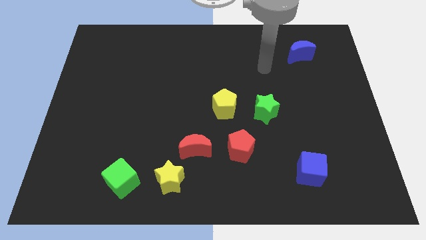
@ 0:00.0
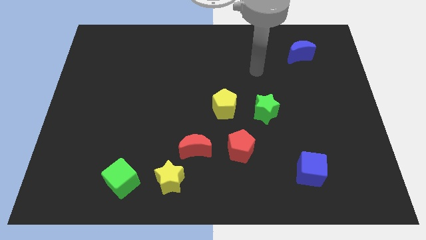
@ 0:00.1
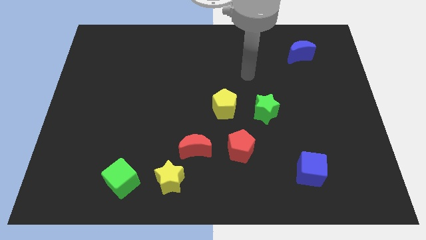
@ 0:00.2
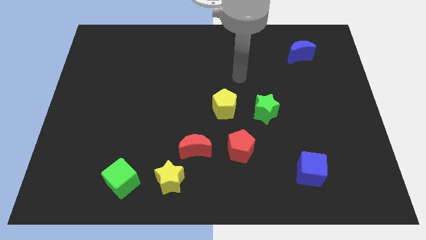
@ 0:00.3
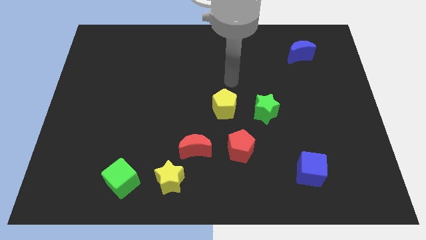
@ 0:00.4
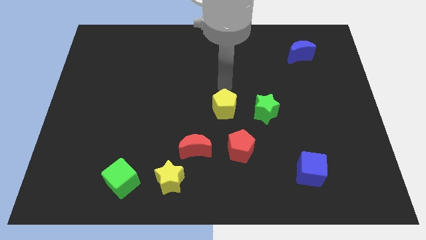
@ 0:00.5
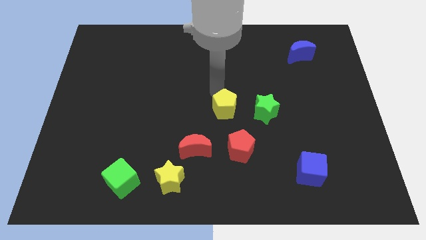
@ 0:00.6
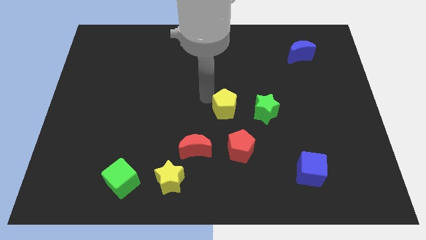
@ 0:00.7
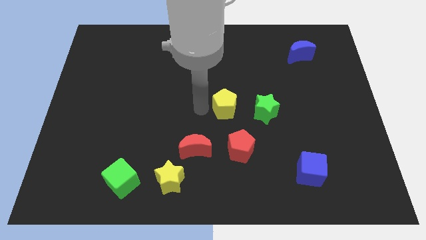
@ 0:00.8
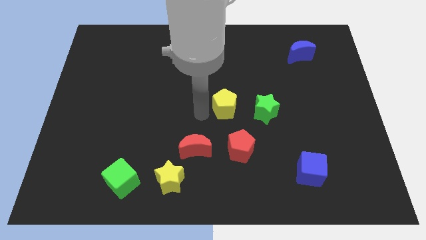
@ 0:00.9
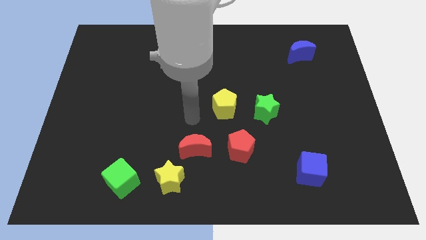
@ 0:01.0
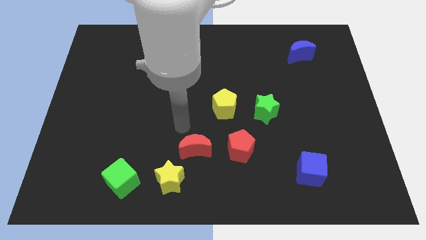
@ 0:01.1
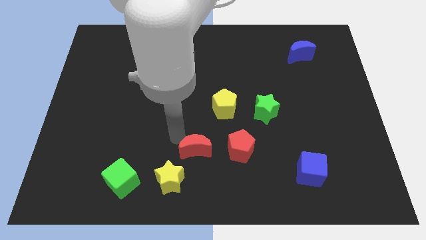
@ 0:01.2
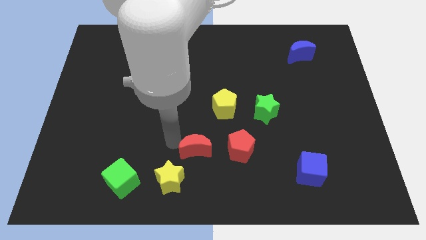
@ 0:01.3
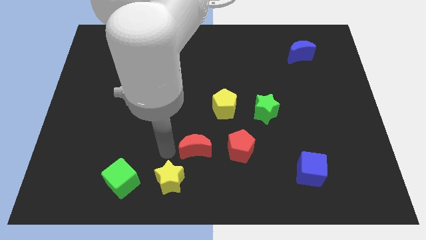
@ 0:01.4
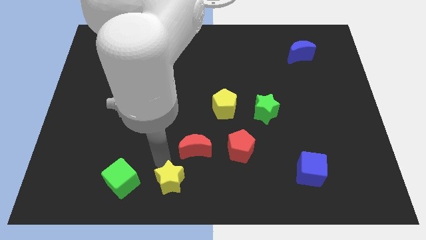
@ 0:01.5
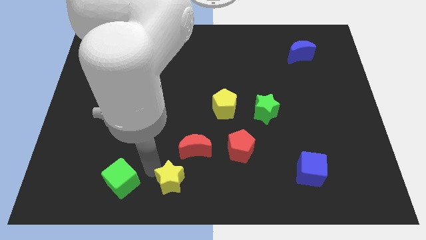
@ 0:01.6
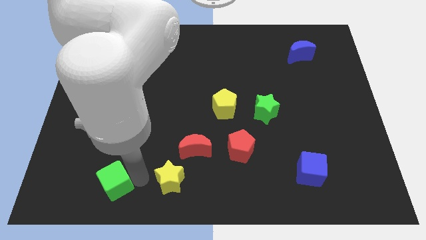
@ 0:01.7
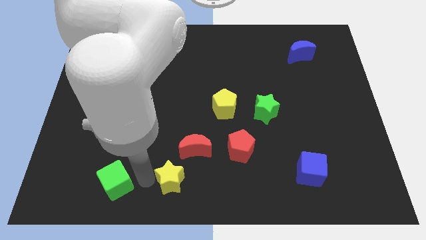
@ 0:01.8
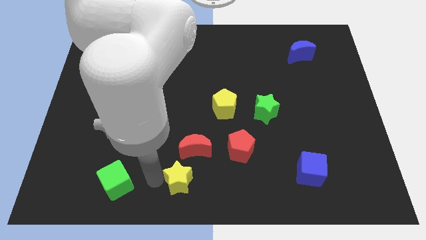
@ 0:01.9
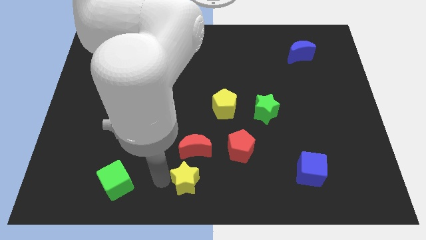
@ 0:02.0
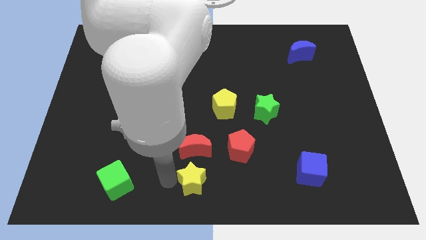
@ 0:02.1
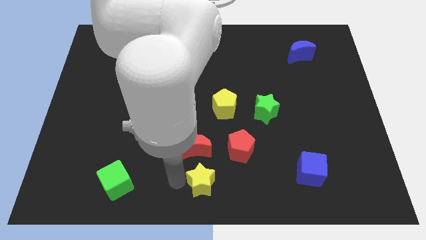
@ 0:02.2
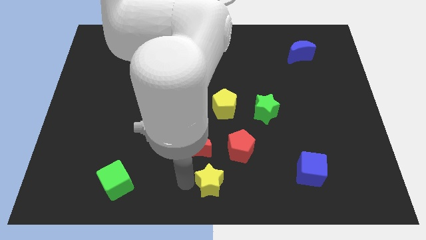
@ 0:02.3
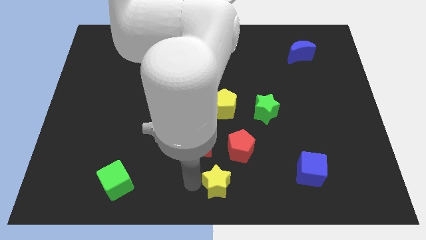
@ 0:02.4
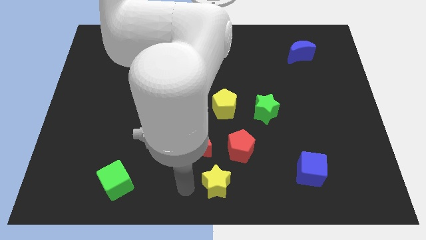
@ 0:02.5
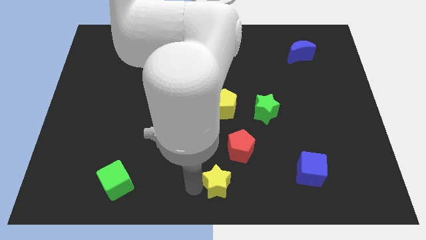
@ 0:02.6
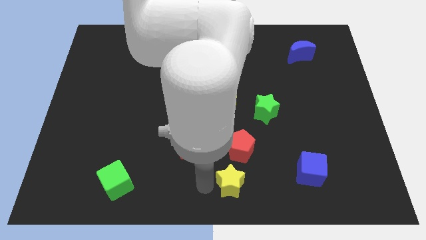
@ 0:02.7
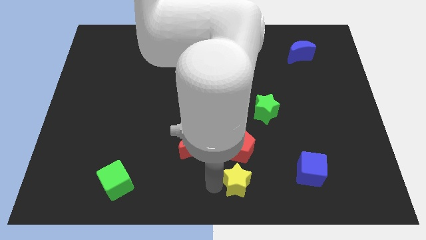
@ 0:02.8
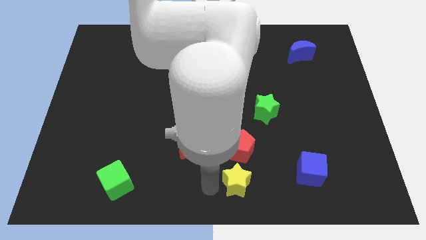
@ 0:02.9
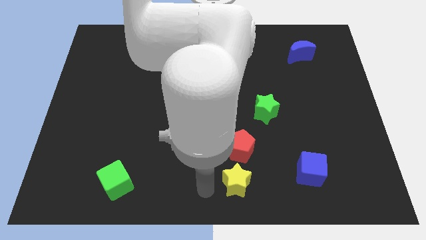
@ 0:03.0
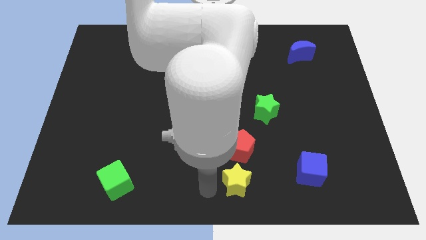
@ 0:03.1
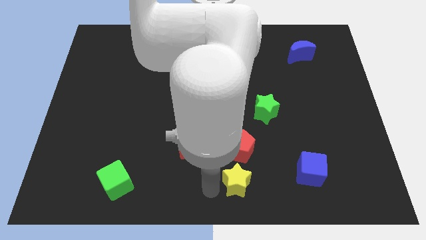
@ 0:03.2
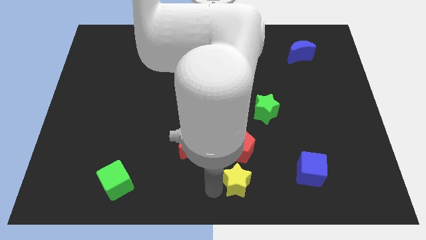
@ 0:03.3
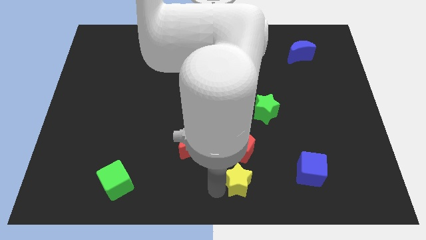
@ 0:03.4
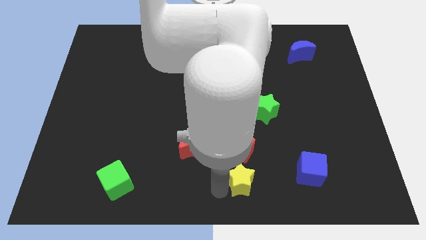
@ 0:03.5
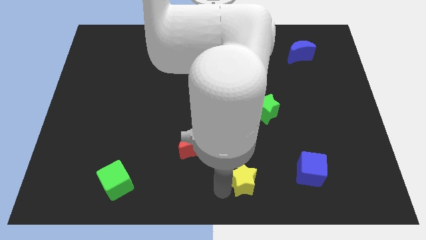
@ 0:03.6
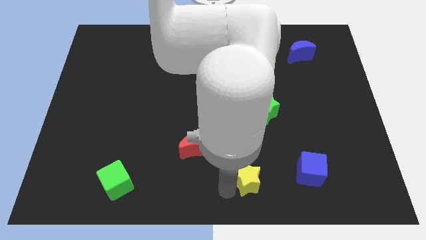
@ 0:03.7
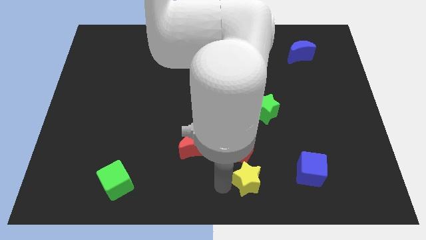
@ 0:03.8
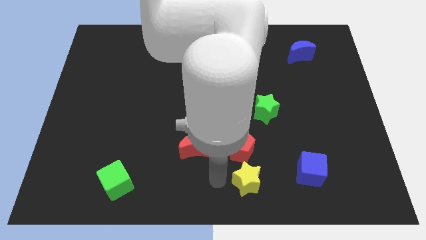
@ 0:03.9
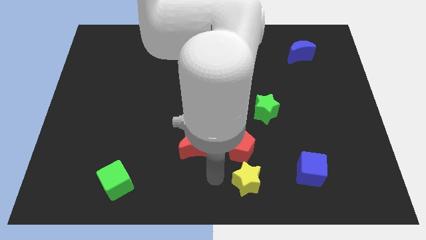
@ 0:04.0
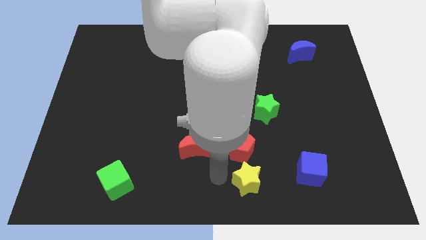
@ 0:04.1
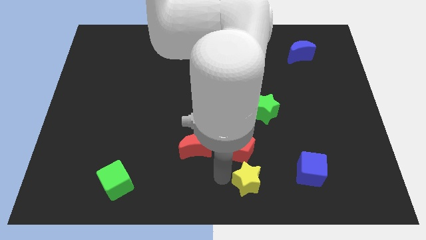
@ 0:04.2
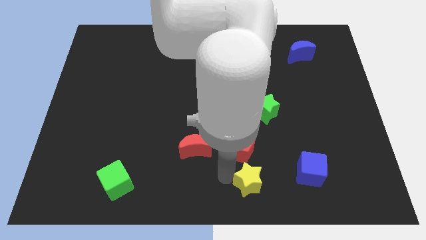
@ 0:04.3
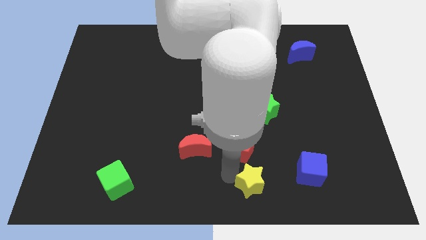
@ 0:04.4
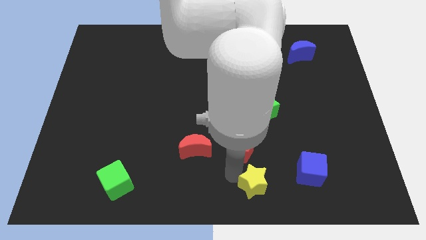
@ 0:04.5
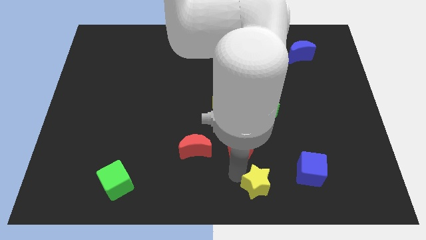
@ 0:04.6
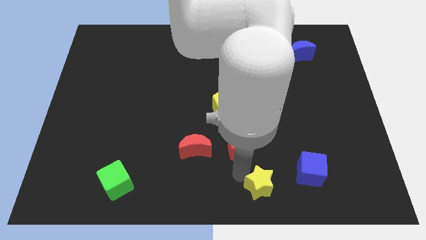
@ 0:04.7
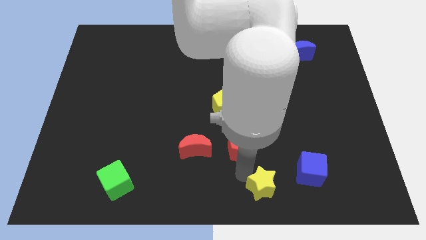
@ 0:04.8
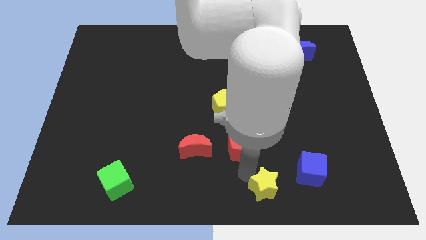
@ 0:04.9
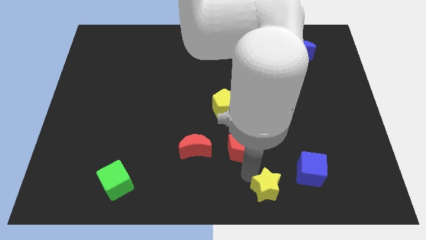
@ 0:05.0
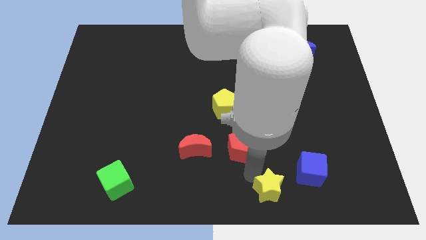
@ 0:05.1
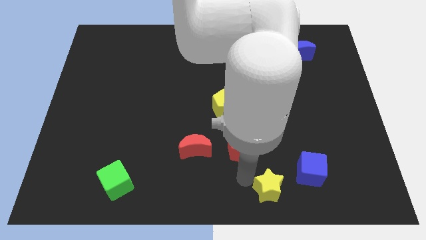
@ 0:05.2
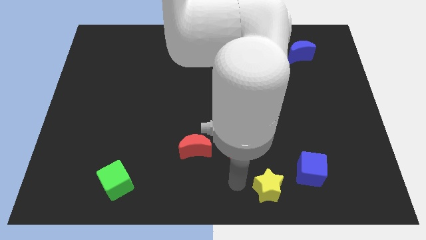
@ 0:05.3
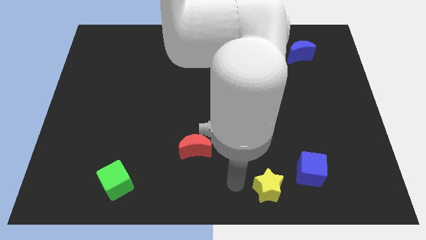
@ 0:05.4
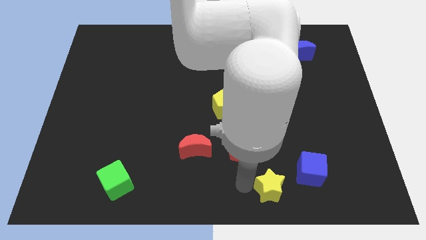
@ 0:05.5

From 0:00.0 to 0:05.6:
move the yellow star to the right

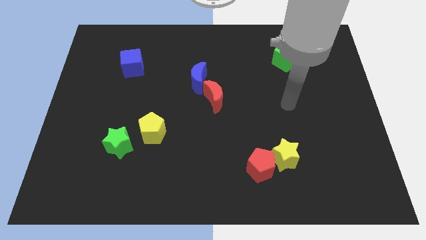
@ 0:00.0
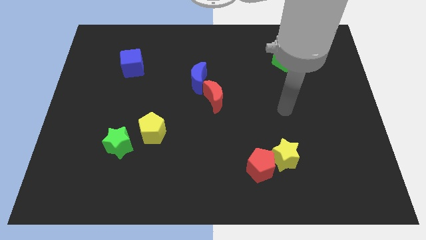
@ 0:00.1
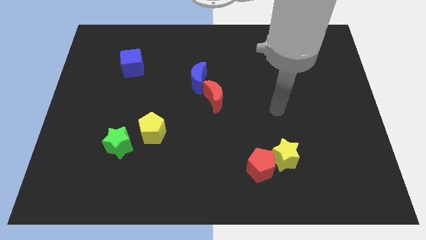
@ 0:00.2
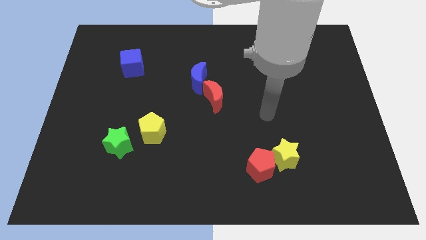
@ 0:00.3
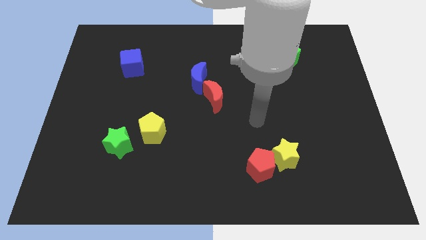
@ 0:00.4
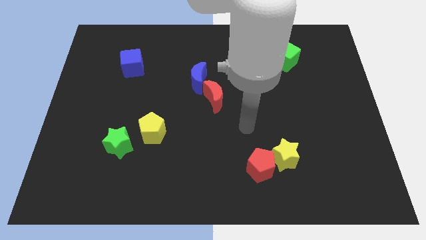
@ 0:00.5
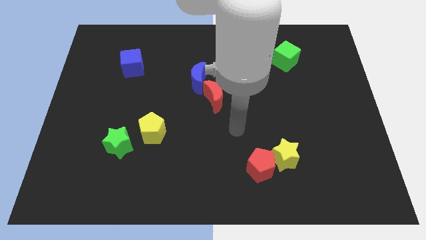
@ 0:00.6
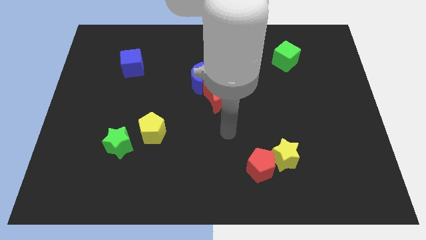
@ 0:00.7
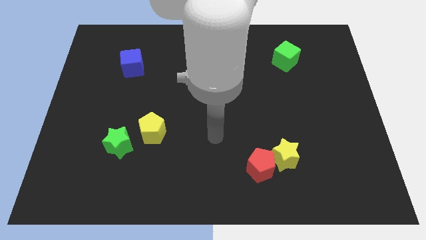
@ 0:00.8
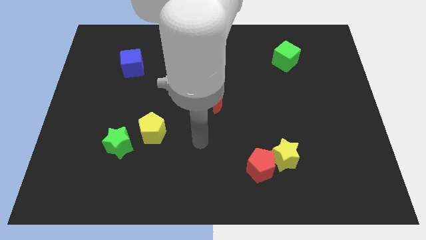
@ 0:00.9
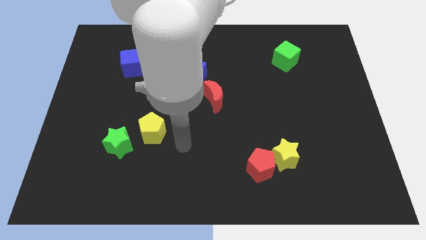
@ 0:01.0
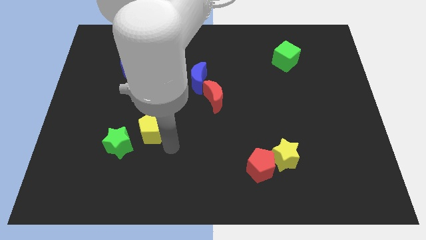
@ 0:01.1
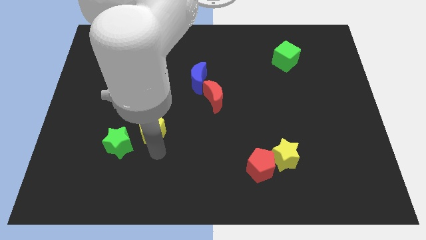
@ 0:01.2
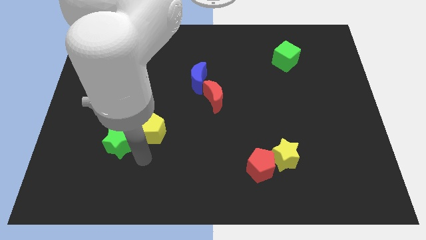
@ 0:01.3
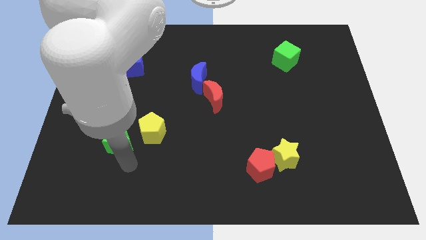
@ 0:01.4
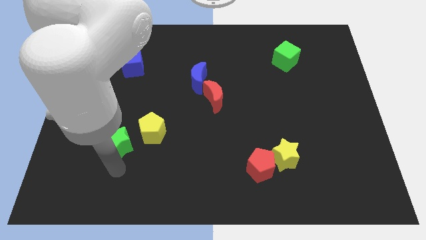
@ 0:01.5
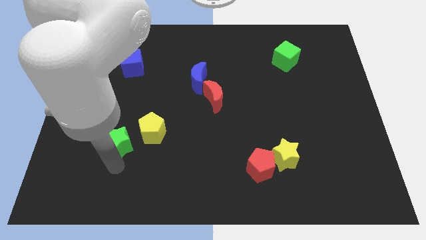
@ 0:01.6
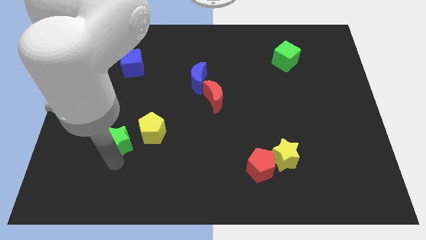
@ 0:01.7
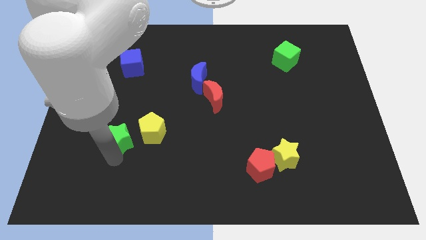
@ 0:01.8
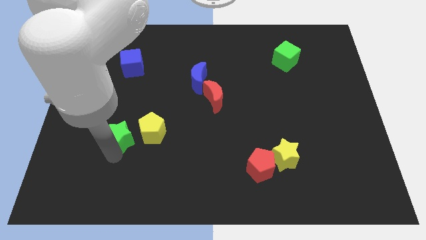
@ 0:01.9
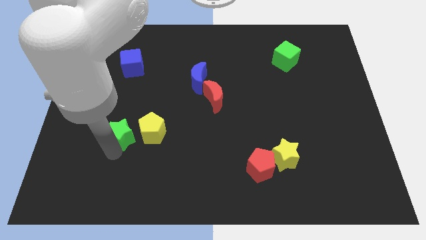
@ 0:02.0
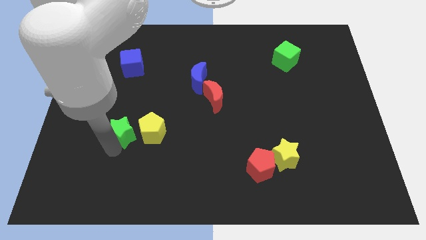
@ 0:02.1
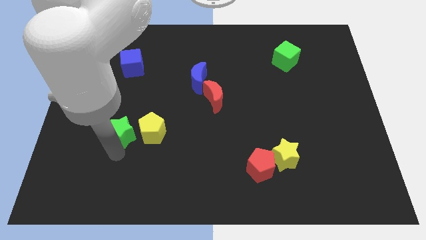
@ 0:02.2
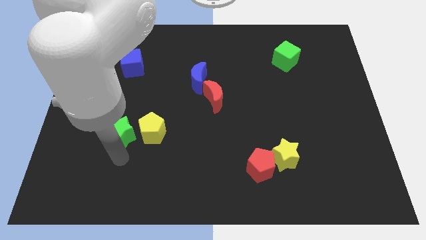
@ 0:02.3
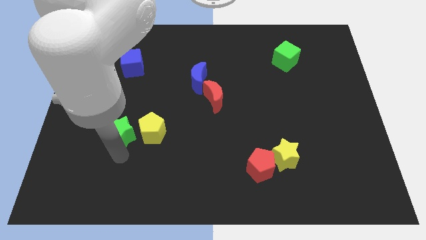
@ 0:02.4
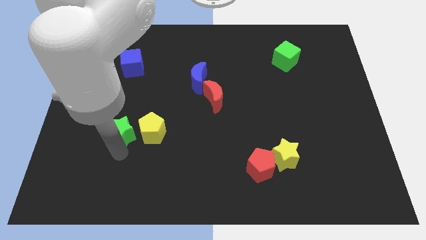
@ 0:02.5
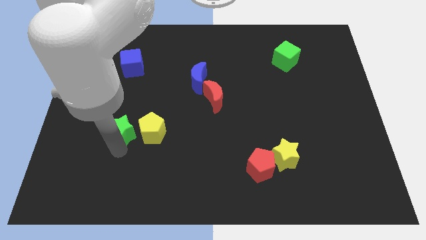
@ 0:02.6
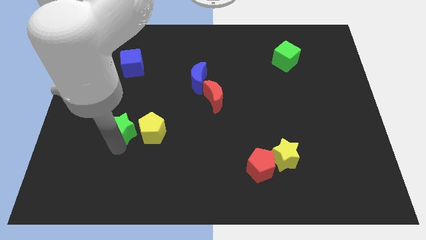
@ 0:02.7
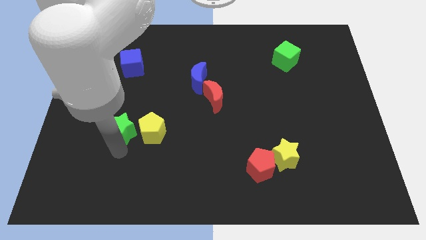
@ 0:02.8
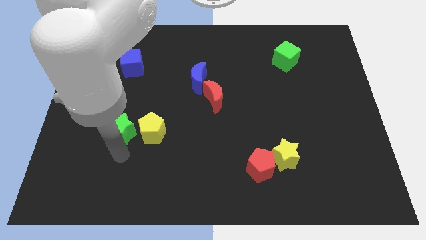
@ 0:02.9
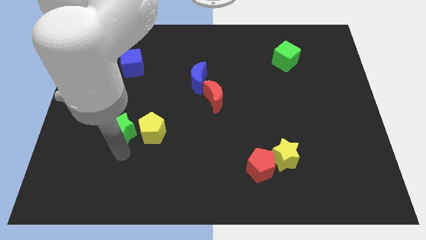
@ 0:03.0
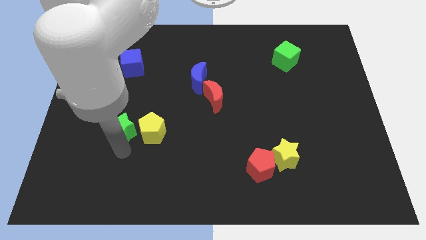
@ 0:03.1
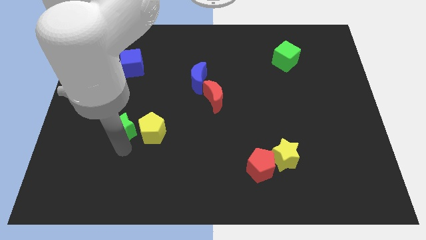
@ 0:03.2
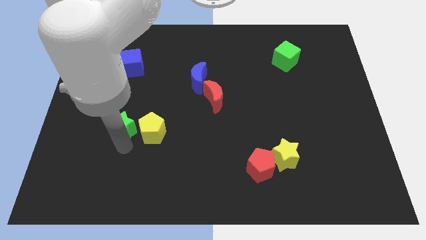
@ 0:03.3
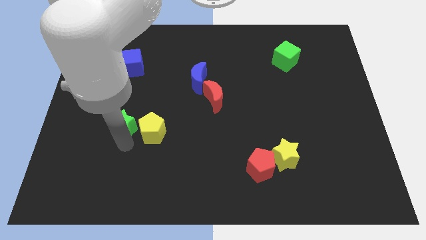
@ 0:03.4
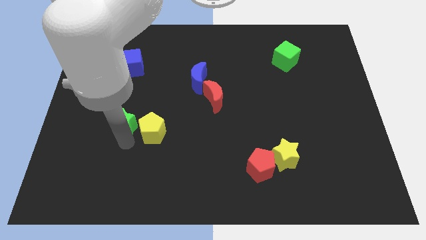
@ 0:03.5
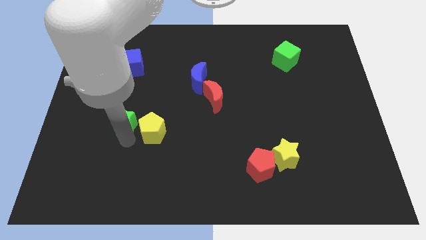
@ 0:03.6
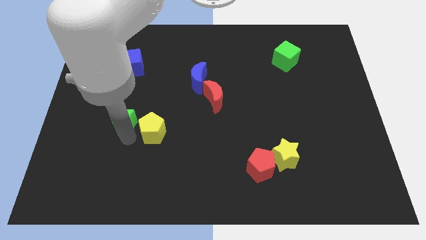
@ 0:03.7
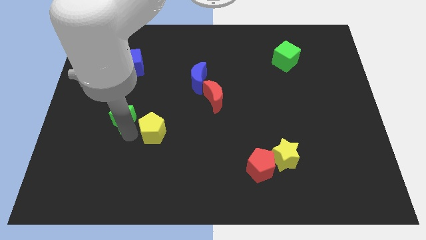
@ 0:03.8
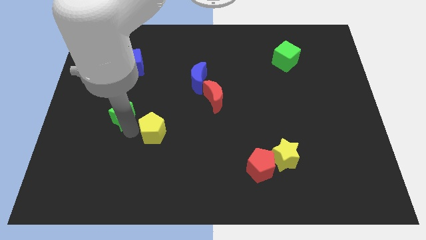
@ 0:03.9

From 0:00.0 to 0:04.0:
push the green star a little bit up
